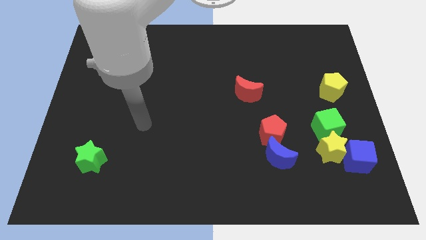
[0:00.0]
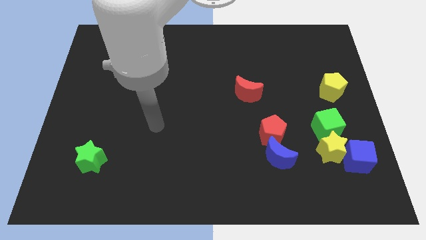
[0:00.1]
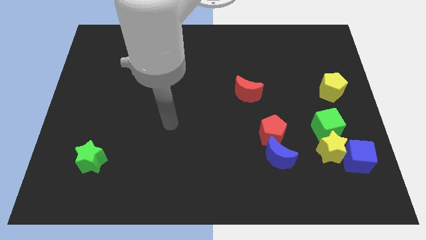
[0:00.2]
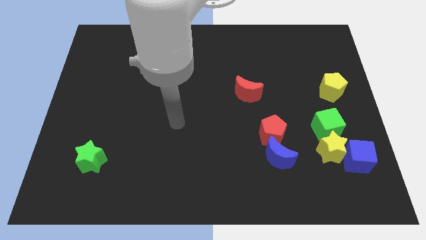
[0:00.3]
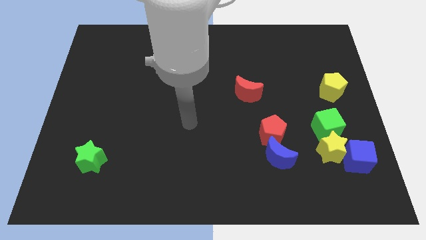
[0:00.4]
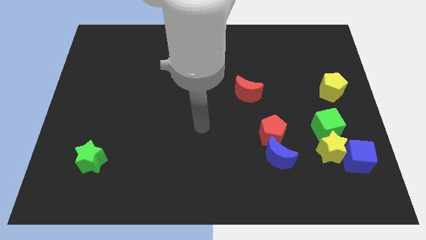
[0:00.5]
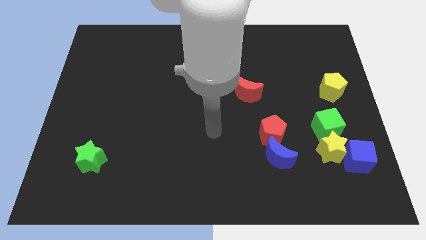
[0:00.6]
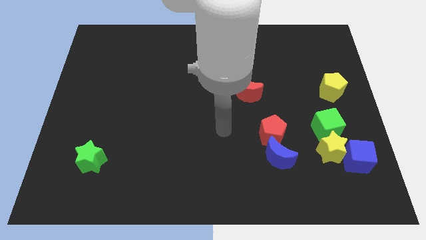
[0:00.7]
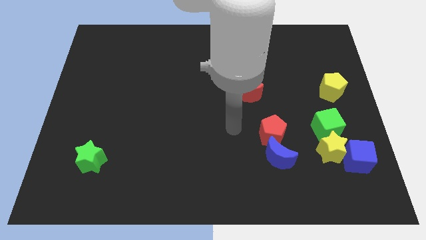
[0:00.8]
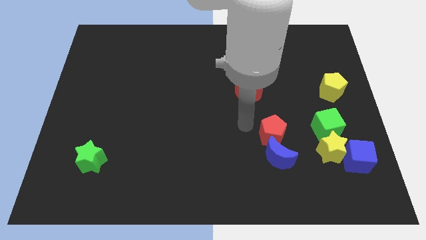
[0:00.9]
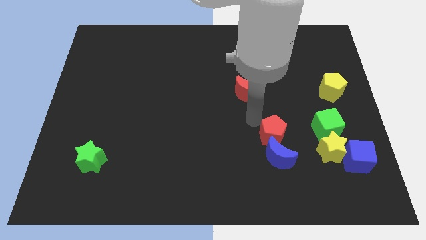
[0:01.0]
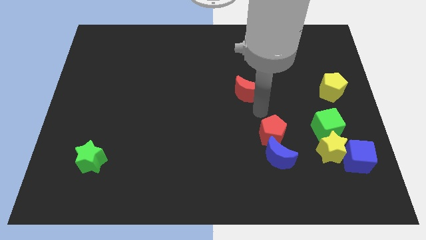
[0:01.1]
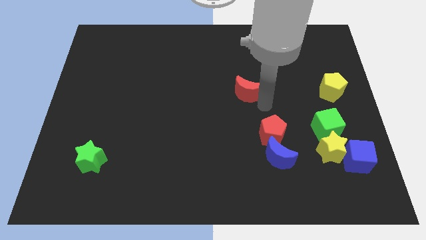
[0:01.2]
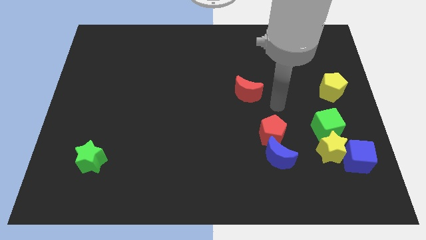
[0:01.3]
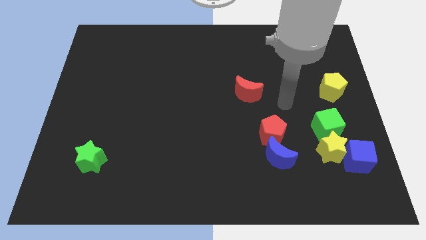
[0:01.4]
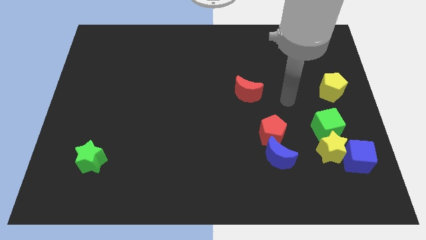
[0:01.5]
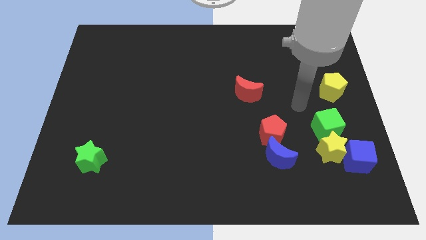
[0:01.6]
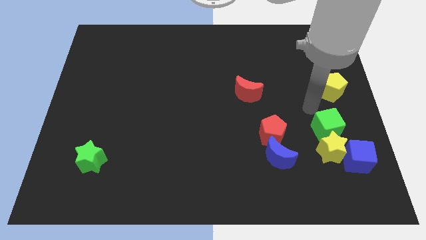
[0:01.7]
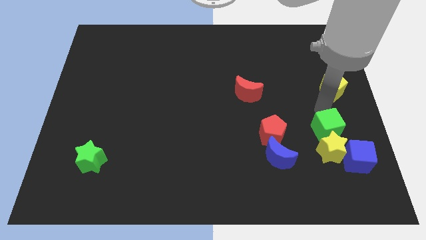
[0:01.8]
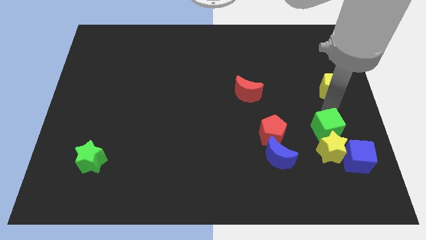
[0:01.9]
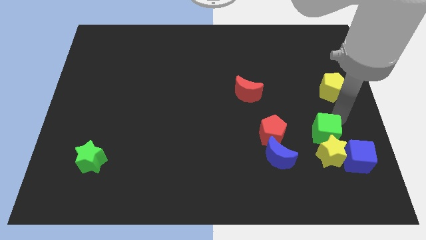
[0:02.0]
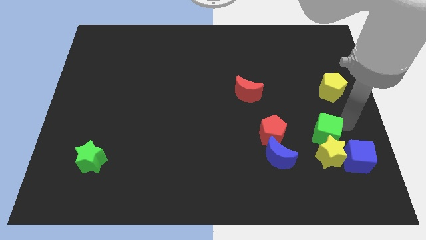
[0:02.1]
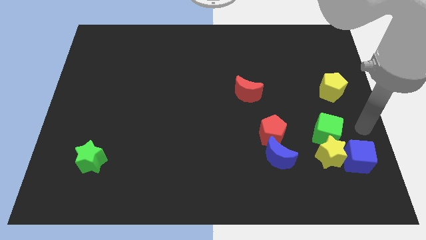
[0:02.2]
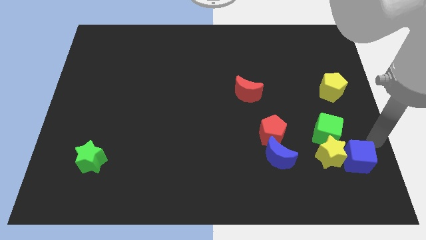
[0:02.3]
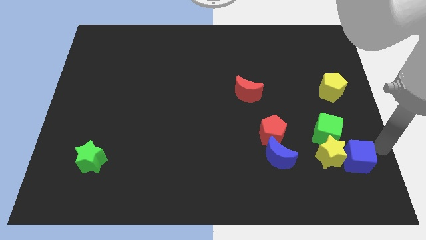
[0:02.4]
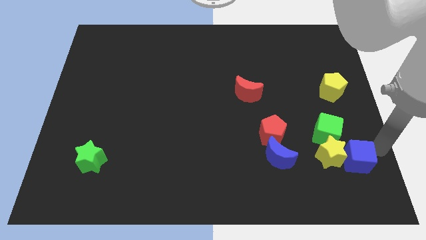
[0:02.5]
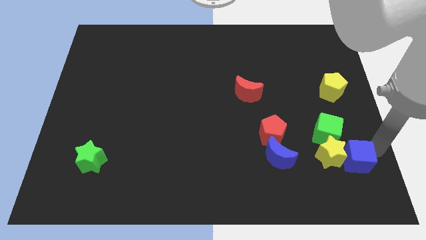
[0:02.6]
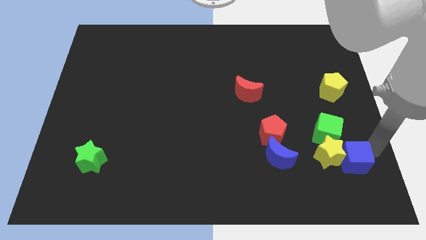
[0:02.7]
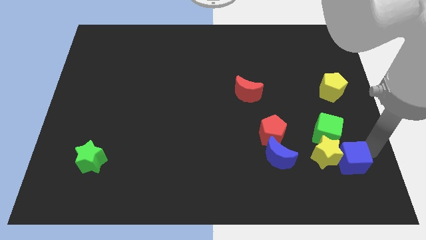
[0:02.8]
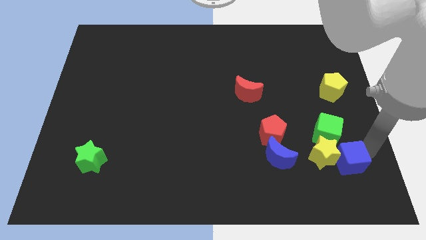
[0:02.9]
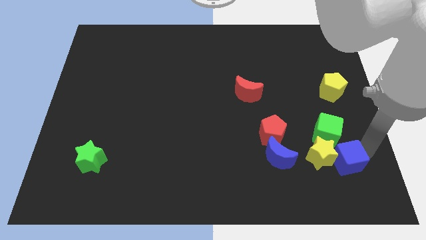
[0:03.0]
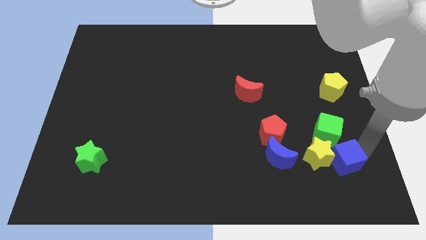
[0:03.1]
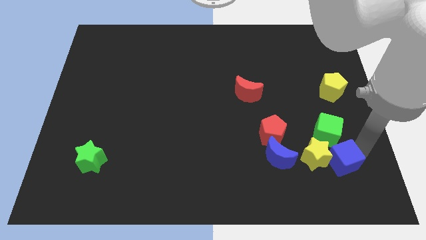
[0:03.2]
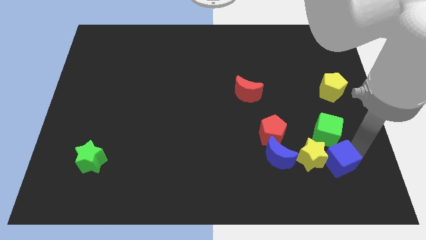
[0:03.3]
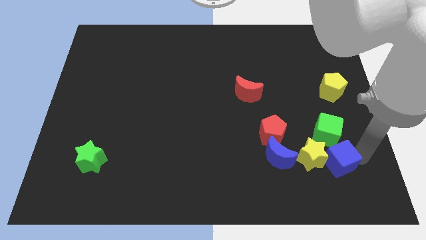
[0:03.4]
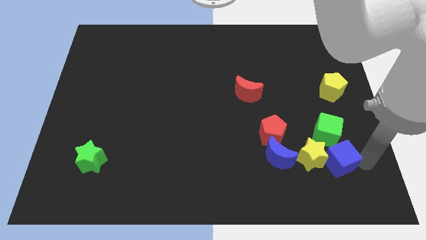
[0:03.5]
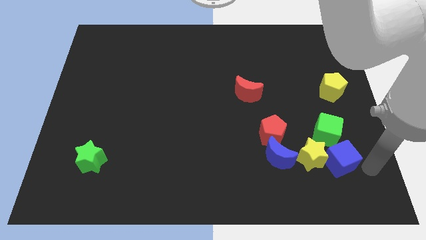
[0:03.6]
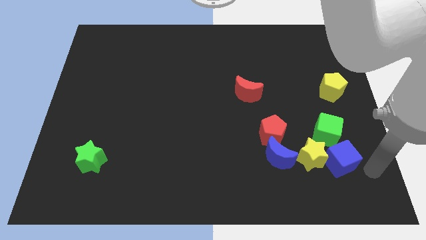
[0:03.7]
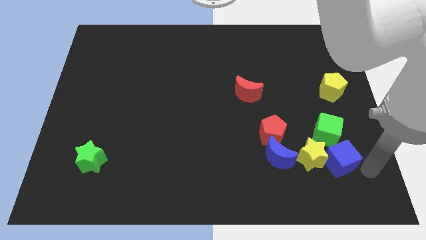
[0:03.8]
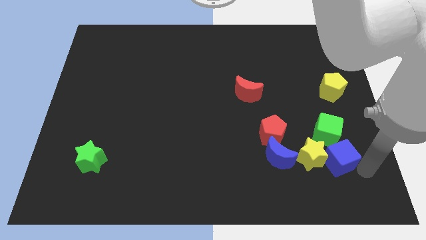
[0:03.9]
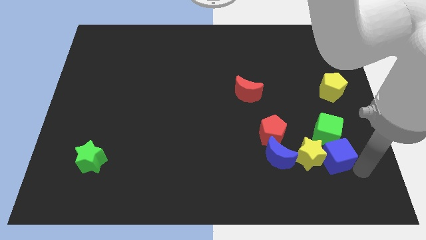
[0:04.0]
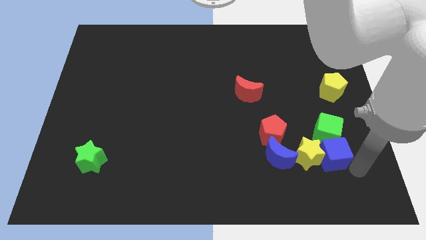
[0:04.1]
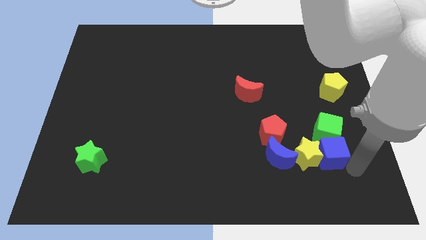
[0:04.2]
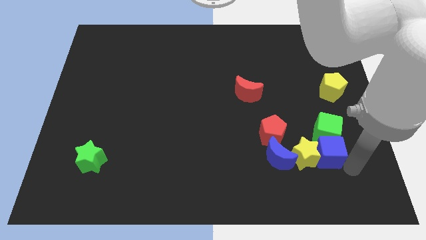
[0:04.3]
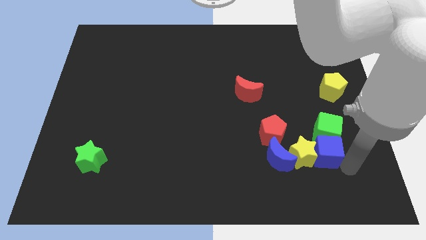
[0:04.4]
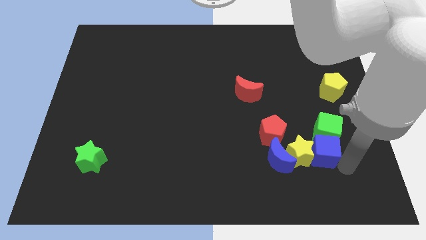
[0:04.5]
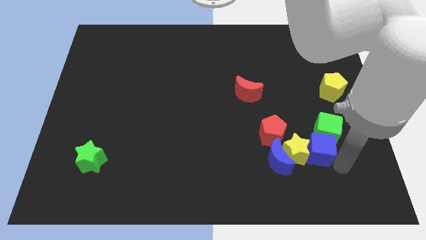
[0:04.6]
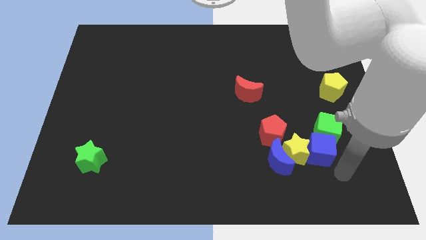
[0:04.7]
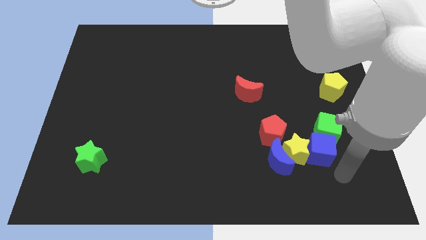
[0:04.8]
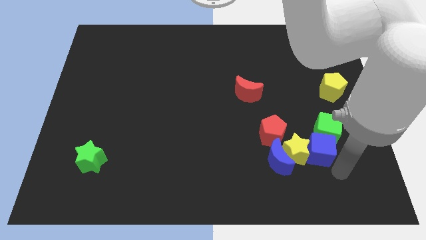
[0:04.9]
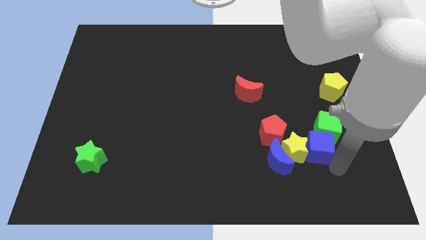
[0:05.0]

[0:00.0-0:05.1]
slightly move the blue cube up and left

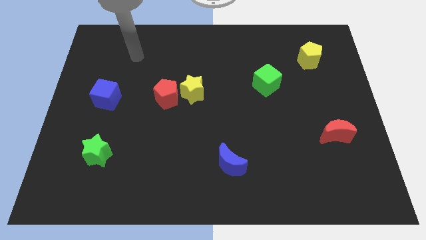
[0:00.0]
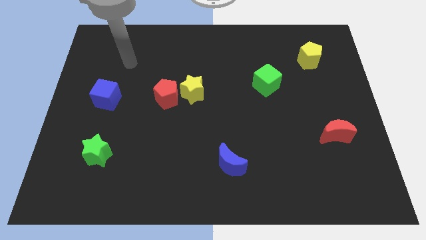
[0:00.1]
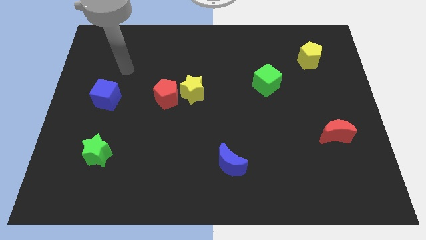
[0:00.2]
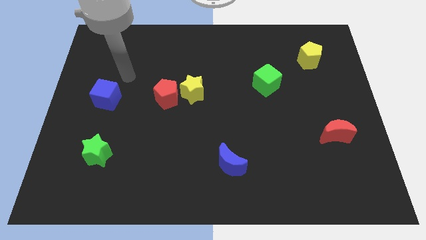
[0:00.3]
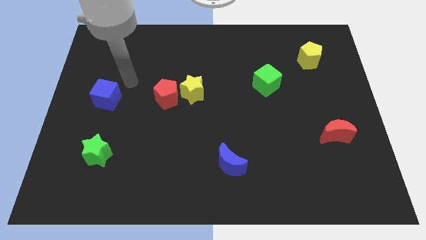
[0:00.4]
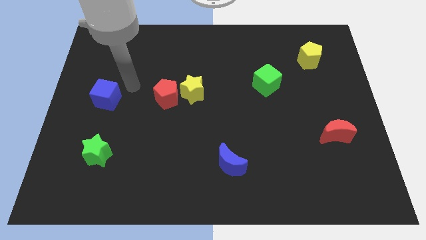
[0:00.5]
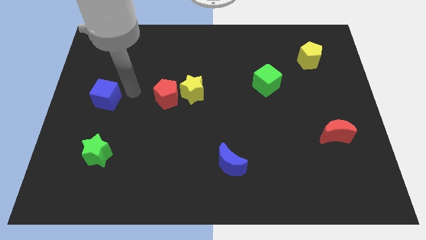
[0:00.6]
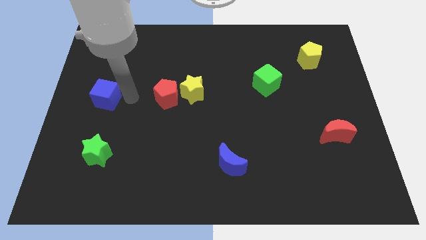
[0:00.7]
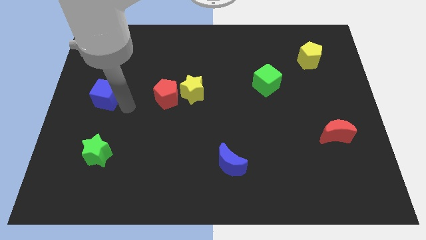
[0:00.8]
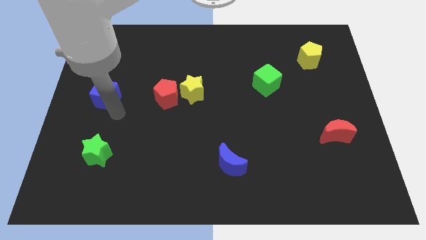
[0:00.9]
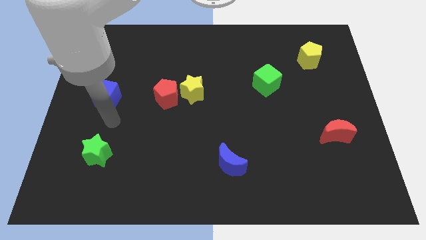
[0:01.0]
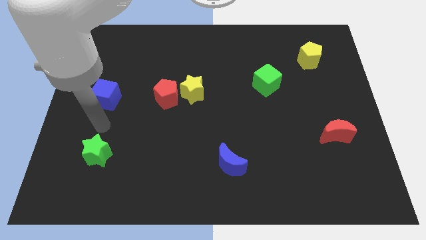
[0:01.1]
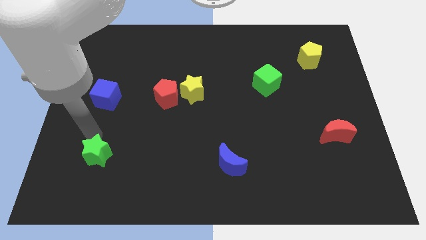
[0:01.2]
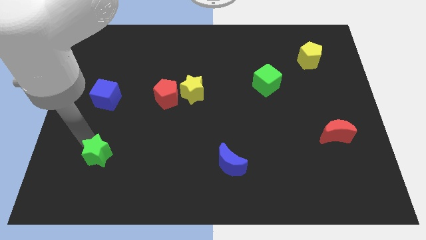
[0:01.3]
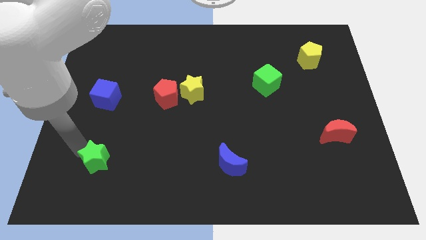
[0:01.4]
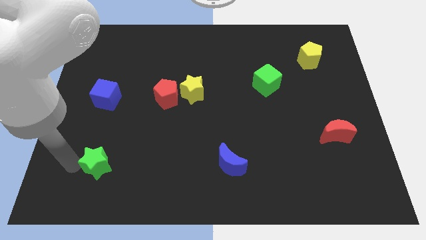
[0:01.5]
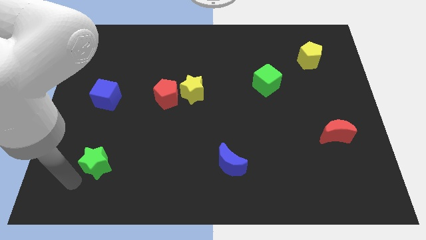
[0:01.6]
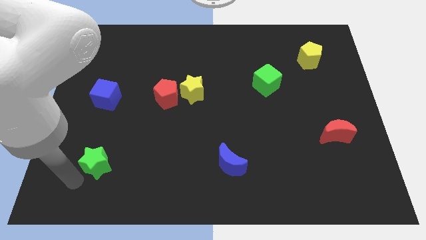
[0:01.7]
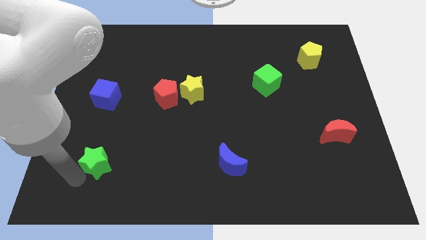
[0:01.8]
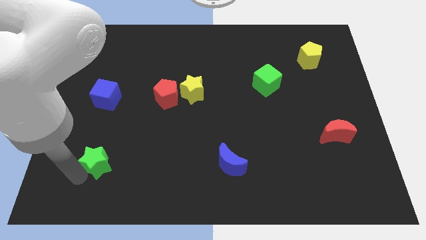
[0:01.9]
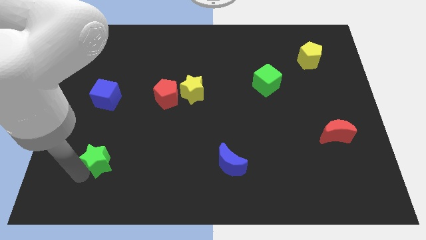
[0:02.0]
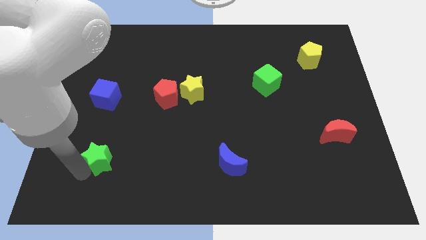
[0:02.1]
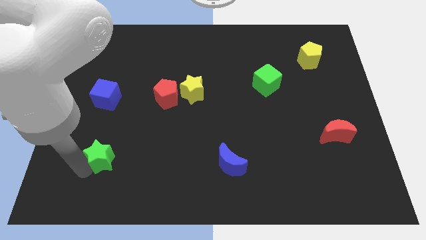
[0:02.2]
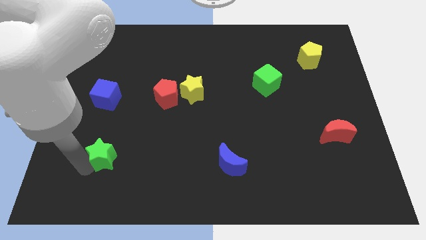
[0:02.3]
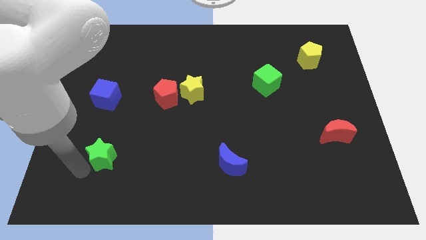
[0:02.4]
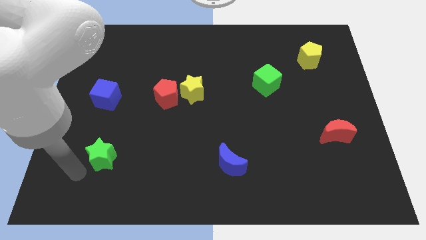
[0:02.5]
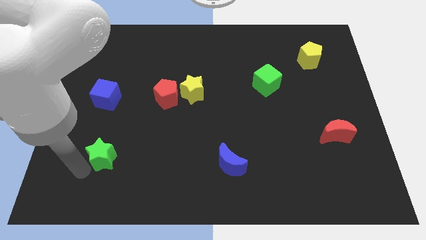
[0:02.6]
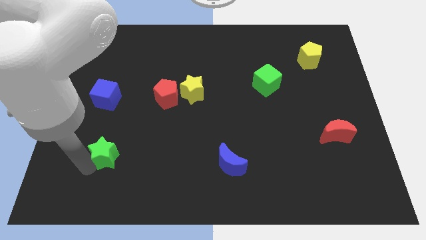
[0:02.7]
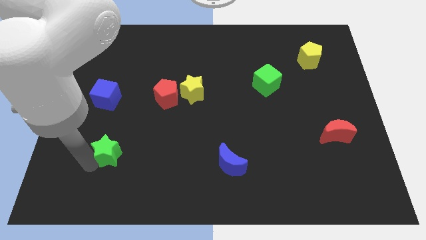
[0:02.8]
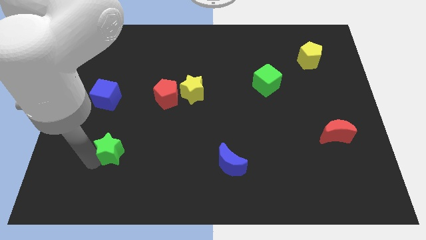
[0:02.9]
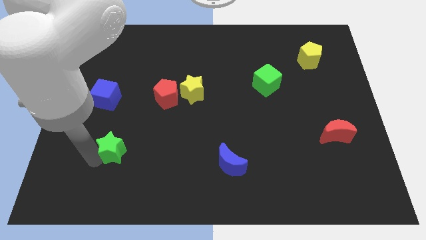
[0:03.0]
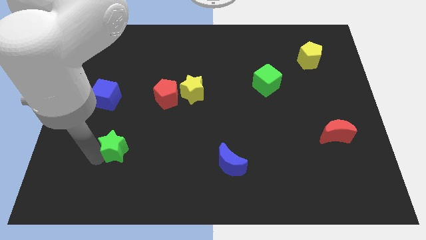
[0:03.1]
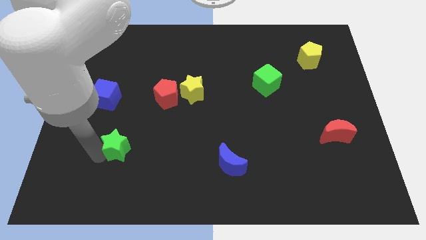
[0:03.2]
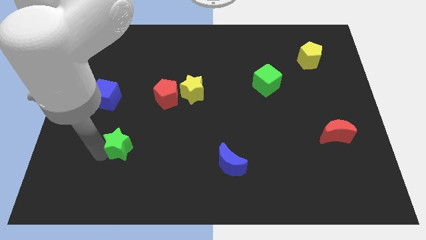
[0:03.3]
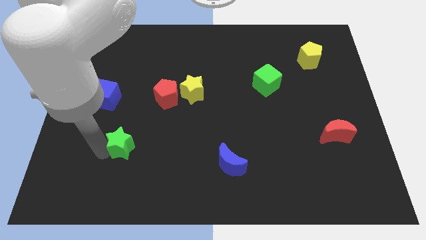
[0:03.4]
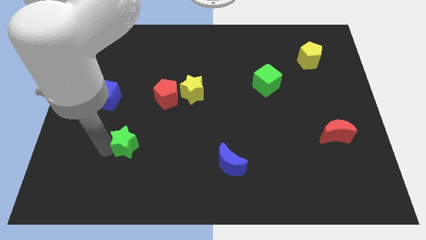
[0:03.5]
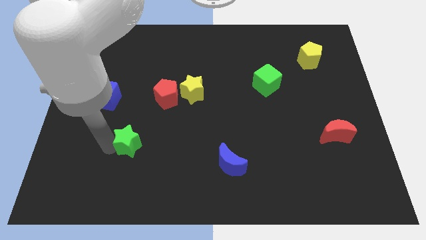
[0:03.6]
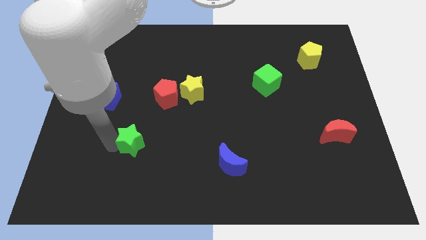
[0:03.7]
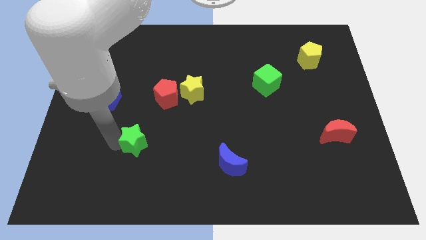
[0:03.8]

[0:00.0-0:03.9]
push the green star a little to the right
